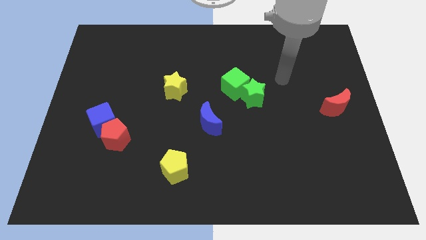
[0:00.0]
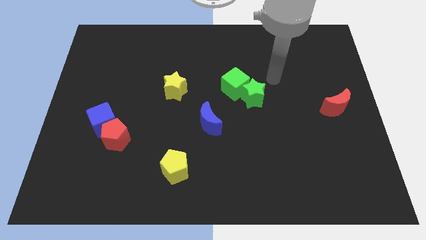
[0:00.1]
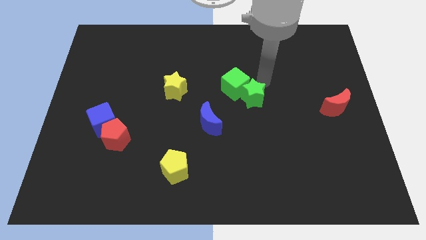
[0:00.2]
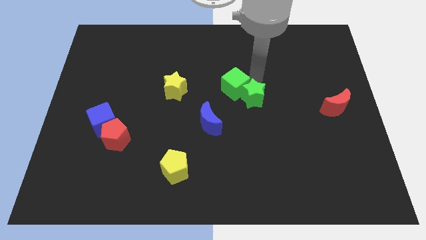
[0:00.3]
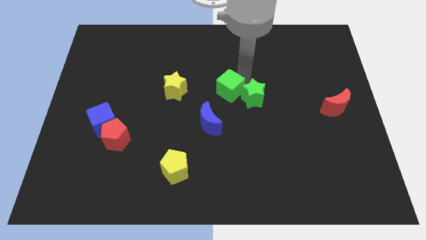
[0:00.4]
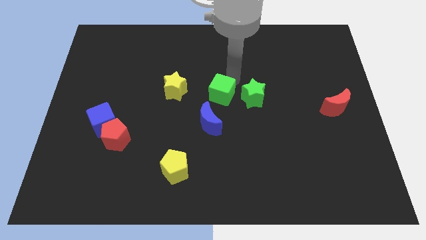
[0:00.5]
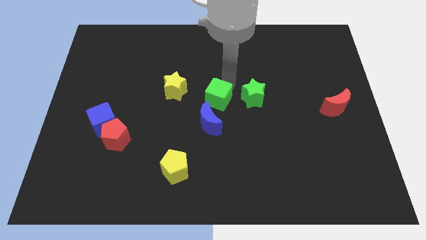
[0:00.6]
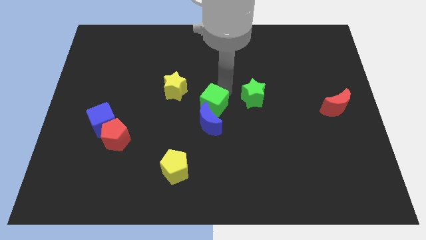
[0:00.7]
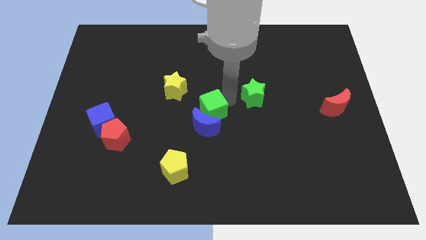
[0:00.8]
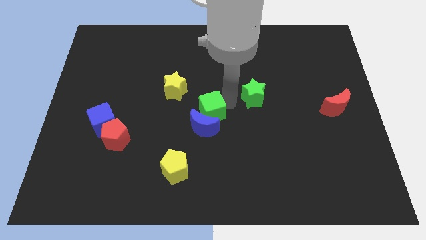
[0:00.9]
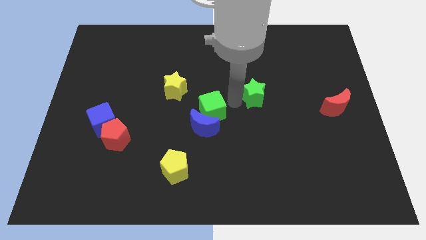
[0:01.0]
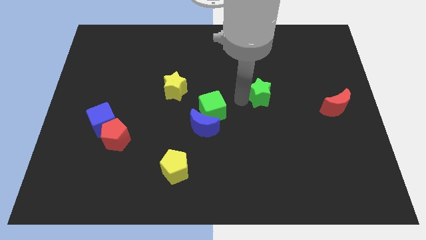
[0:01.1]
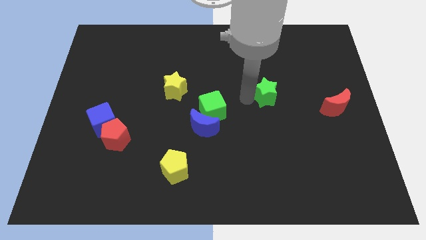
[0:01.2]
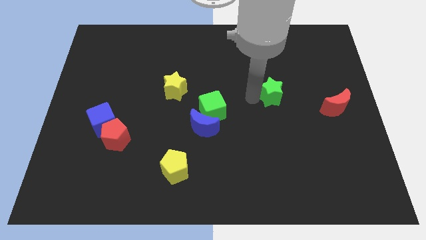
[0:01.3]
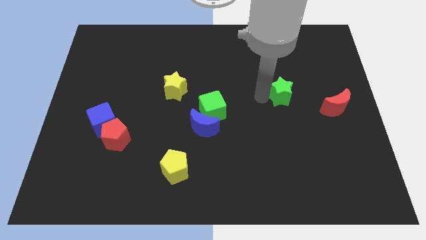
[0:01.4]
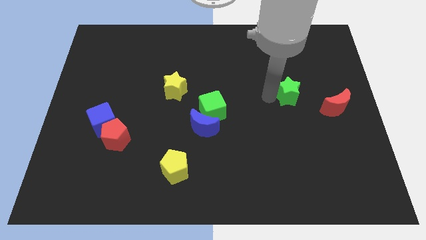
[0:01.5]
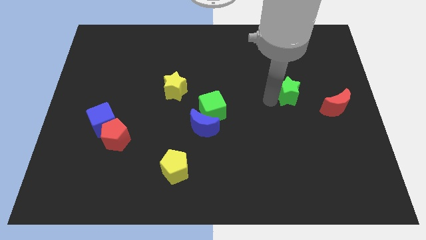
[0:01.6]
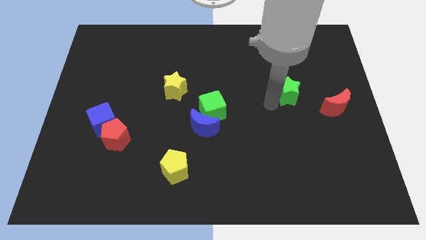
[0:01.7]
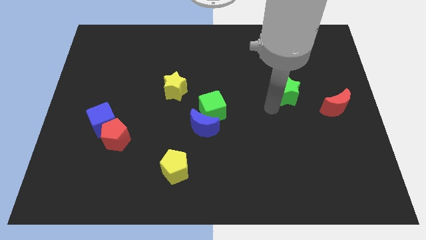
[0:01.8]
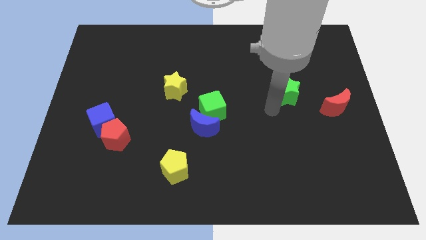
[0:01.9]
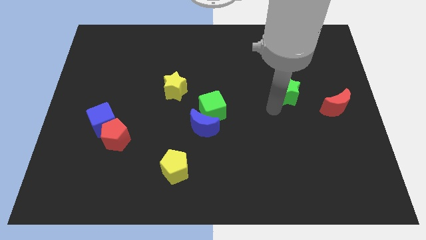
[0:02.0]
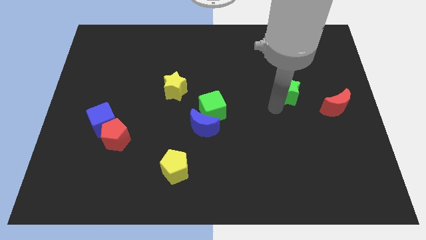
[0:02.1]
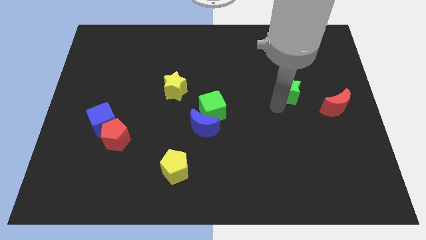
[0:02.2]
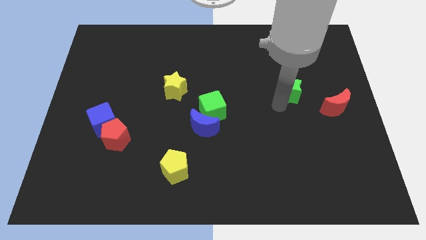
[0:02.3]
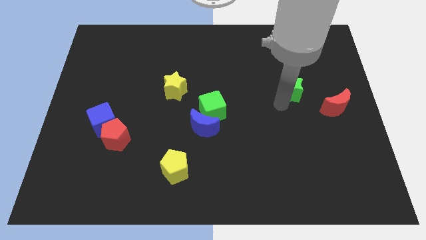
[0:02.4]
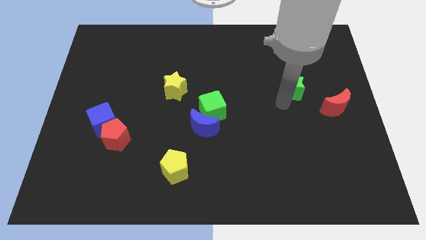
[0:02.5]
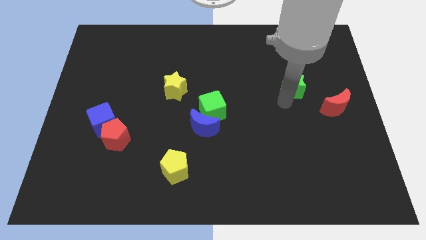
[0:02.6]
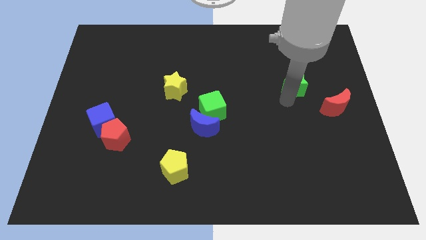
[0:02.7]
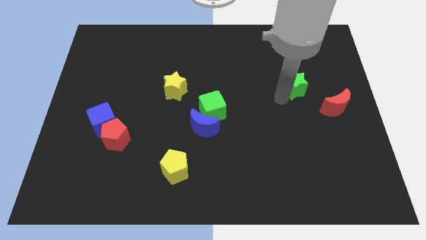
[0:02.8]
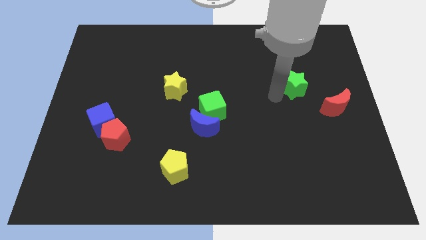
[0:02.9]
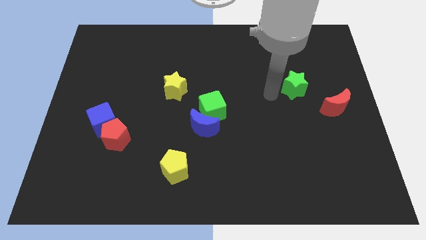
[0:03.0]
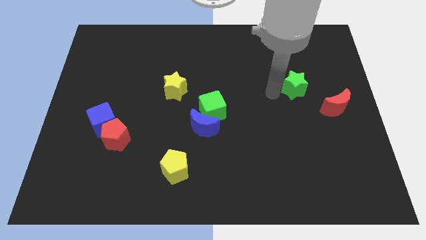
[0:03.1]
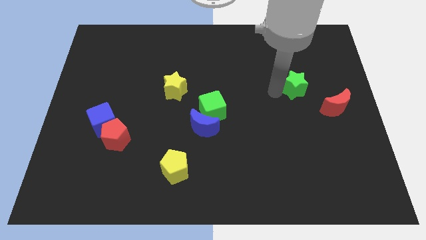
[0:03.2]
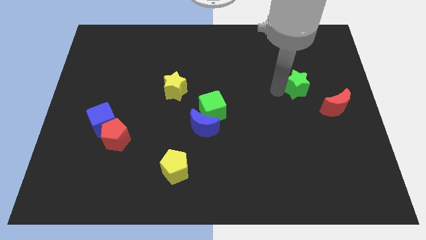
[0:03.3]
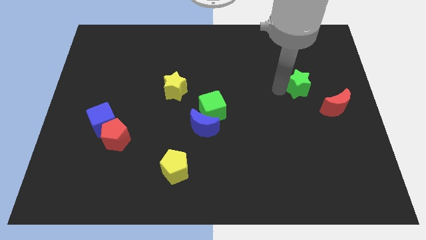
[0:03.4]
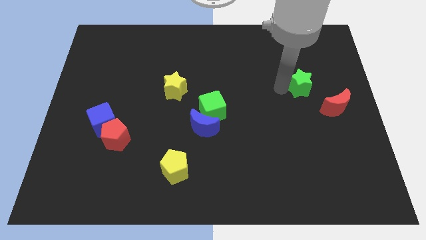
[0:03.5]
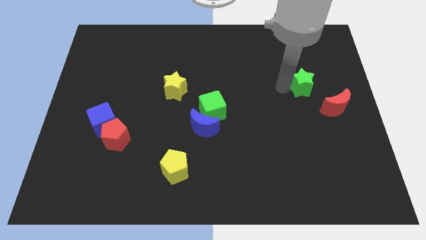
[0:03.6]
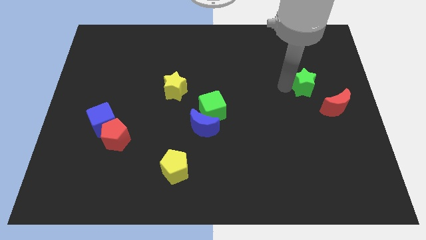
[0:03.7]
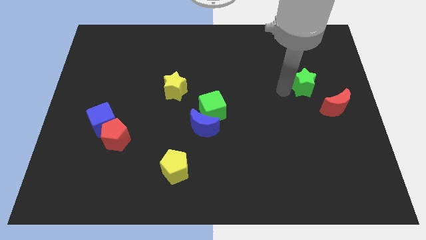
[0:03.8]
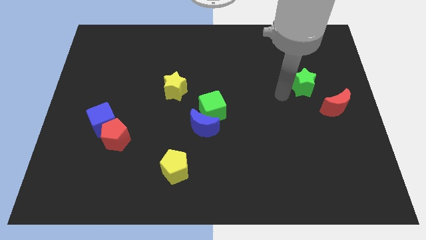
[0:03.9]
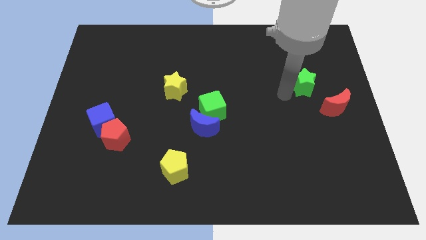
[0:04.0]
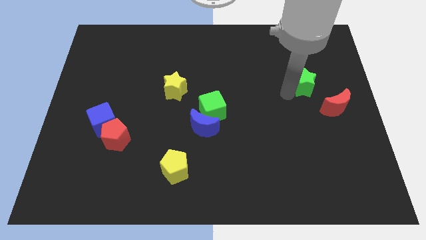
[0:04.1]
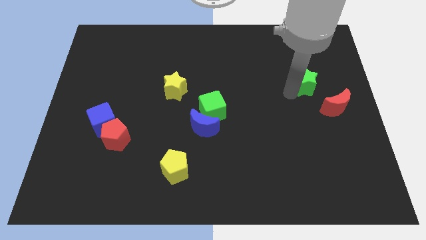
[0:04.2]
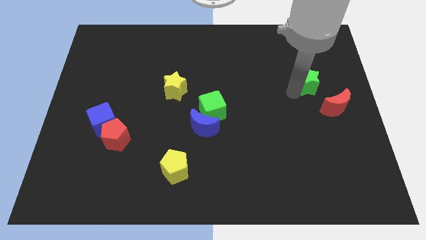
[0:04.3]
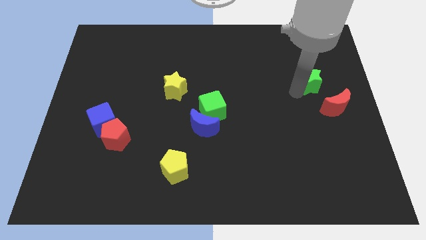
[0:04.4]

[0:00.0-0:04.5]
slide the green star to the top side of the red moon

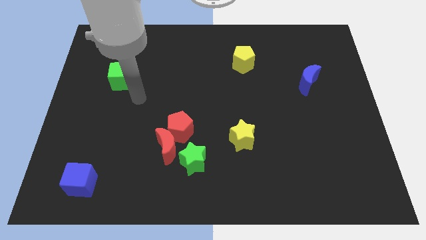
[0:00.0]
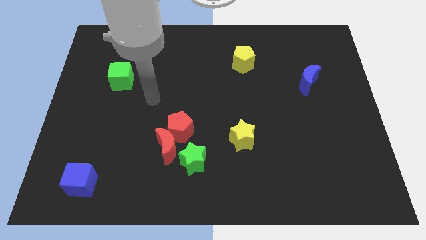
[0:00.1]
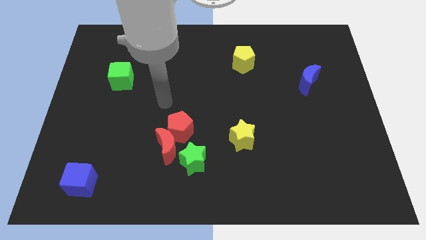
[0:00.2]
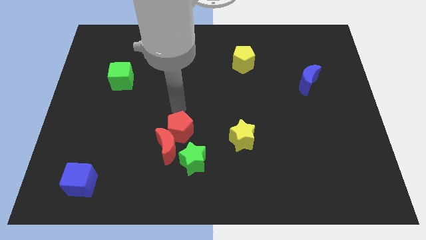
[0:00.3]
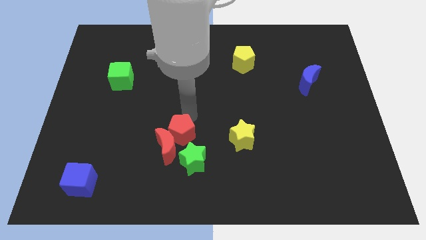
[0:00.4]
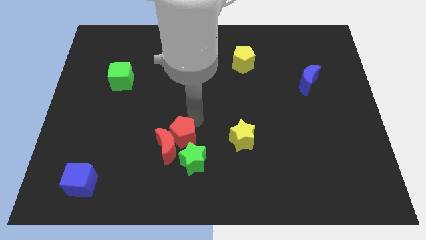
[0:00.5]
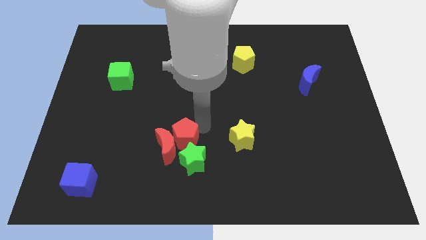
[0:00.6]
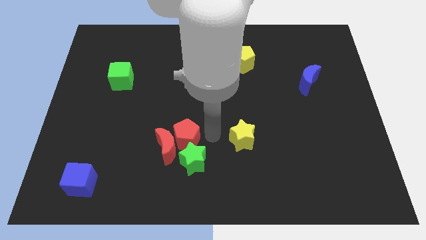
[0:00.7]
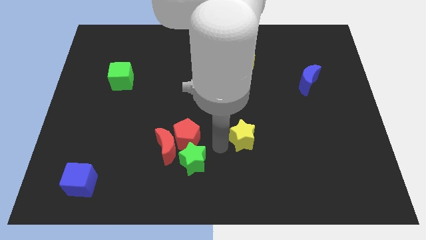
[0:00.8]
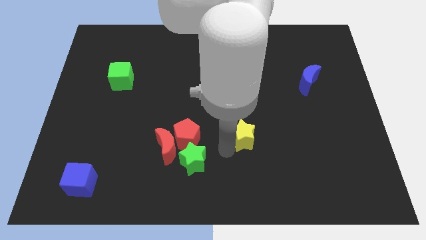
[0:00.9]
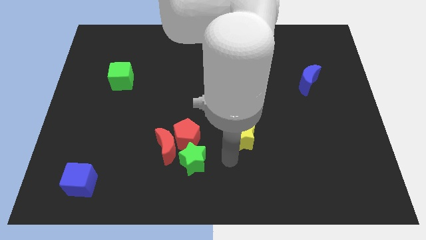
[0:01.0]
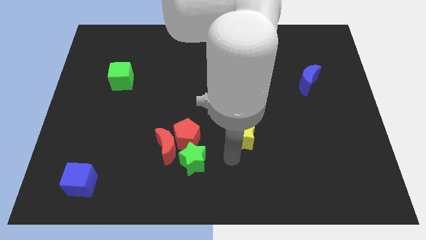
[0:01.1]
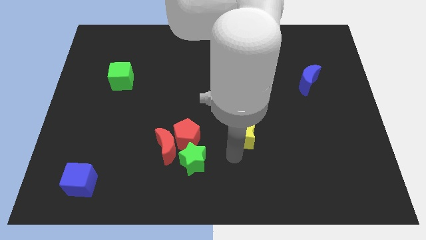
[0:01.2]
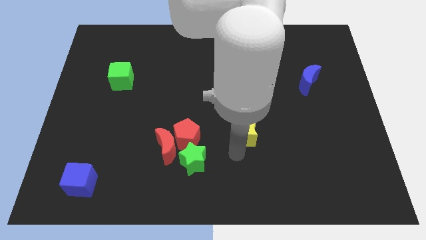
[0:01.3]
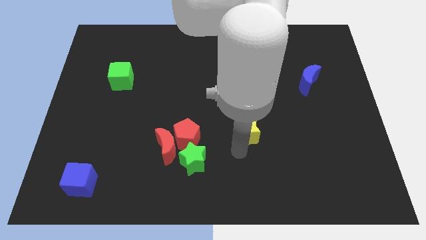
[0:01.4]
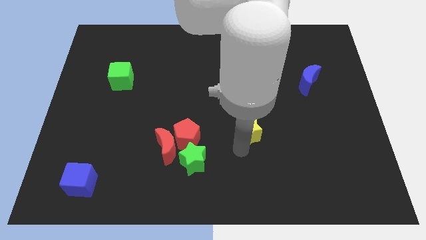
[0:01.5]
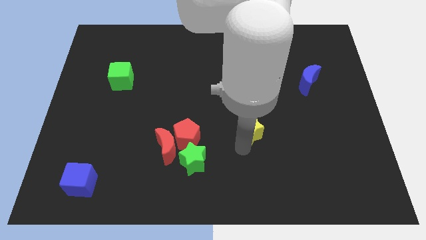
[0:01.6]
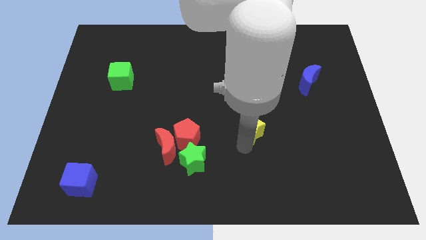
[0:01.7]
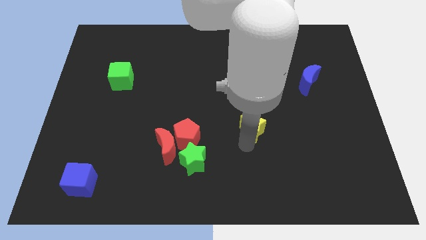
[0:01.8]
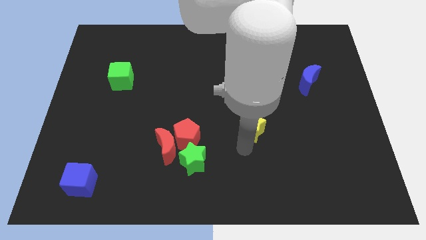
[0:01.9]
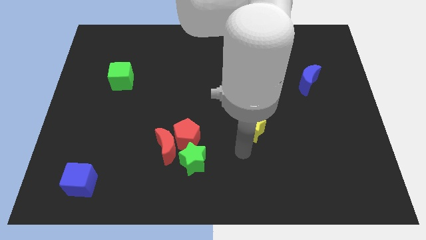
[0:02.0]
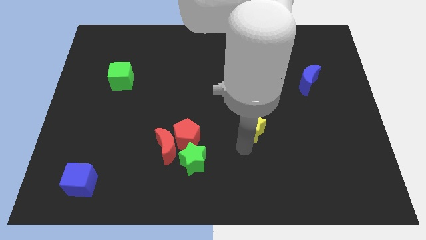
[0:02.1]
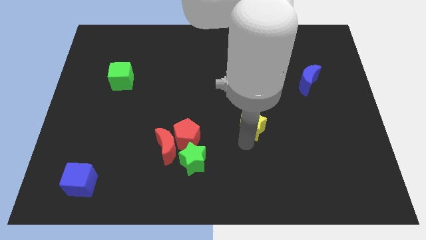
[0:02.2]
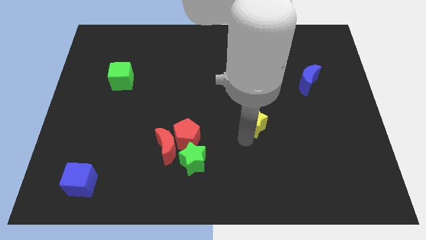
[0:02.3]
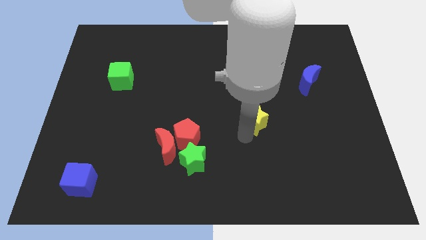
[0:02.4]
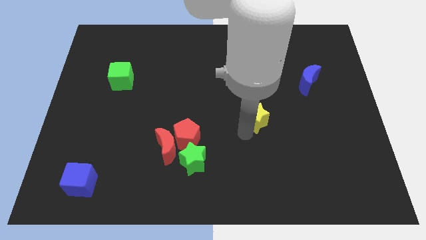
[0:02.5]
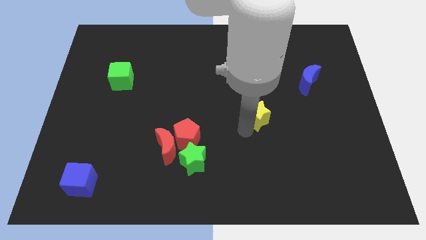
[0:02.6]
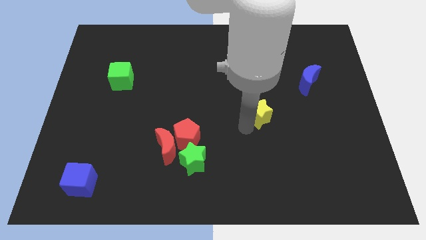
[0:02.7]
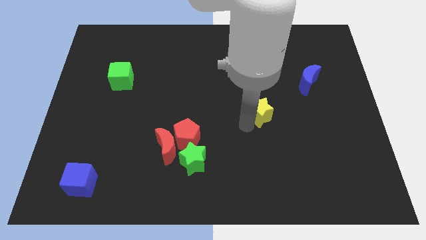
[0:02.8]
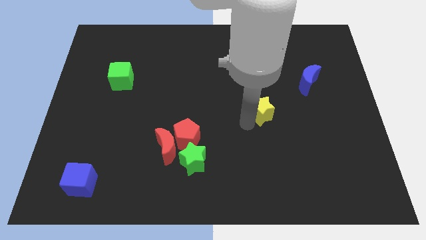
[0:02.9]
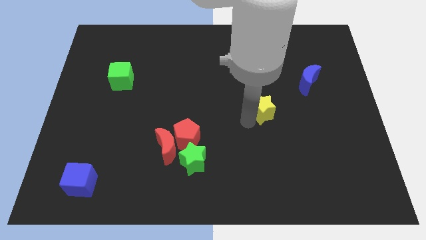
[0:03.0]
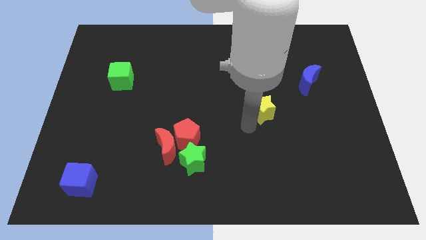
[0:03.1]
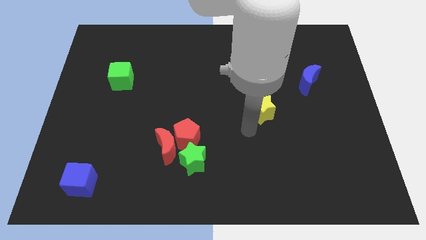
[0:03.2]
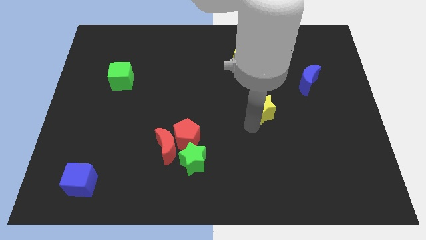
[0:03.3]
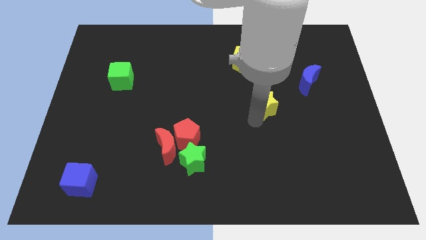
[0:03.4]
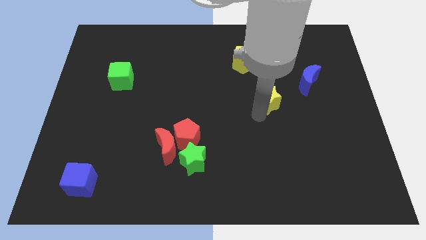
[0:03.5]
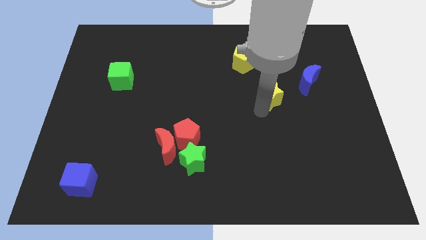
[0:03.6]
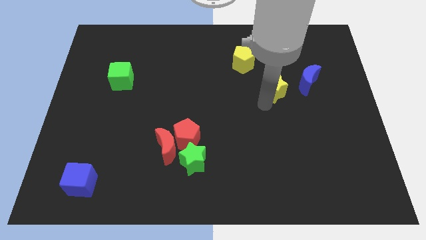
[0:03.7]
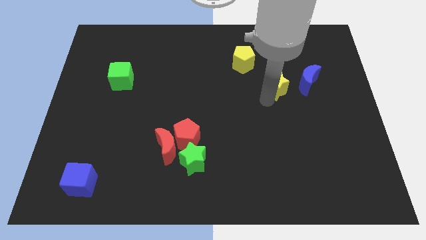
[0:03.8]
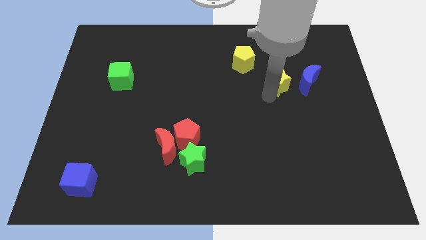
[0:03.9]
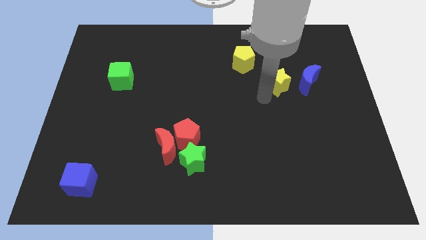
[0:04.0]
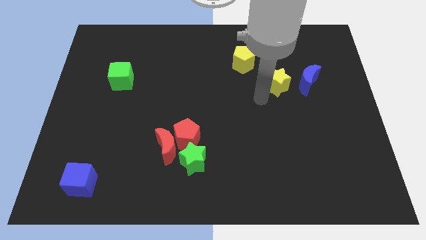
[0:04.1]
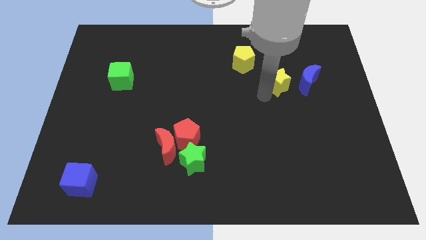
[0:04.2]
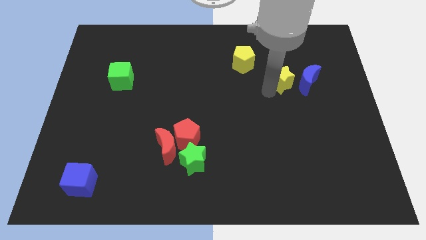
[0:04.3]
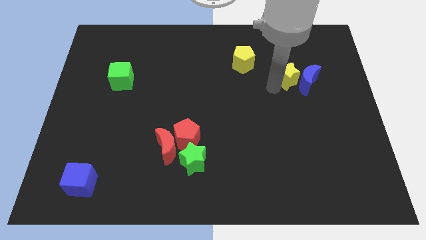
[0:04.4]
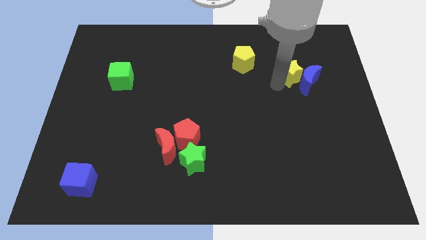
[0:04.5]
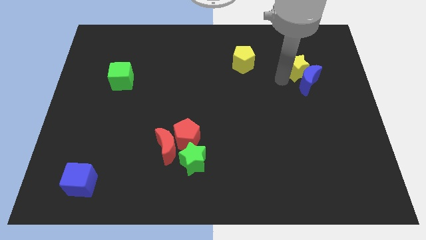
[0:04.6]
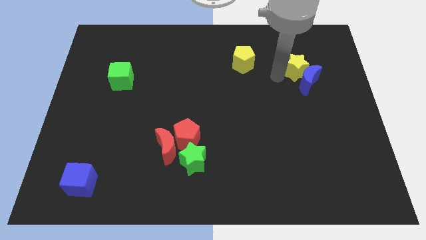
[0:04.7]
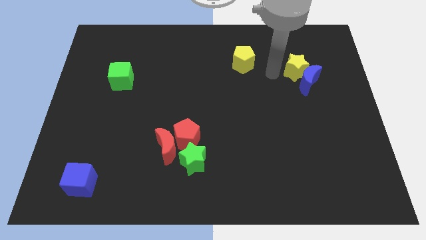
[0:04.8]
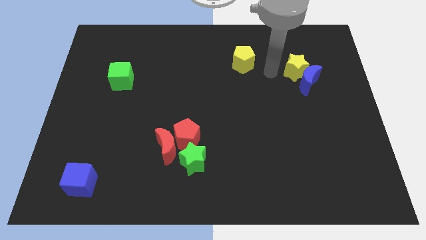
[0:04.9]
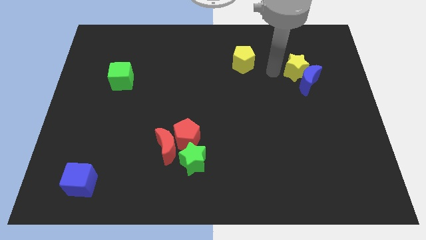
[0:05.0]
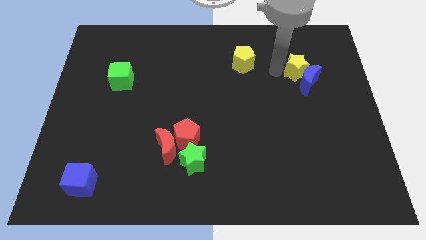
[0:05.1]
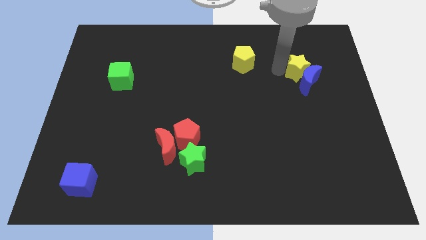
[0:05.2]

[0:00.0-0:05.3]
push the yellow star to the top right side of the blue moon
